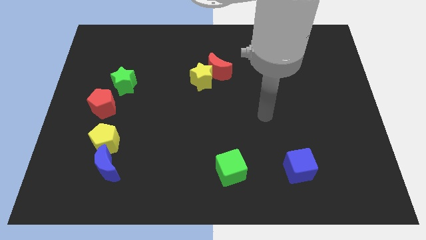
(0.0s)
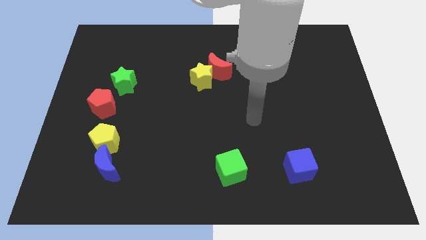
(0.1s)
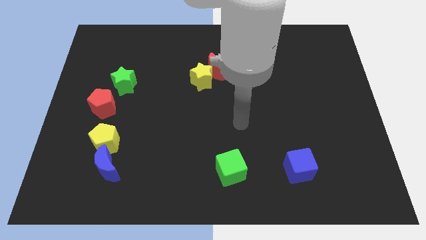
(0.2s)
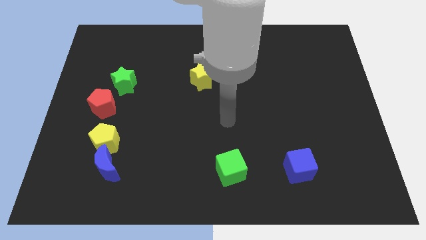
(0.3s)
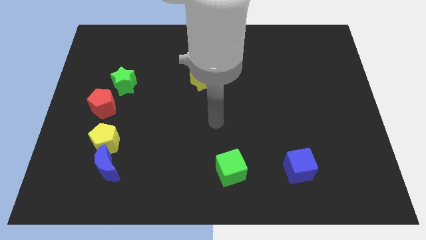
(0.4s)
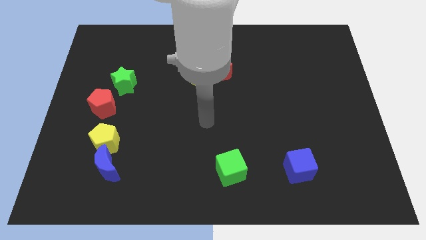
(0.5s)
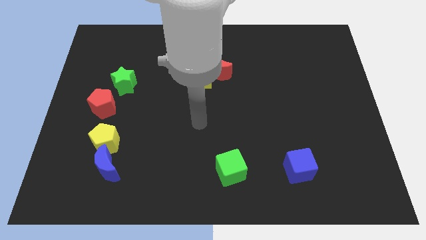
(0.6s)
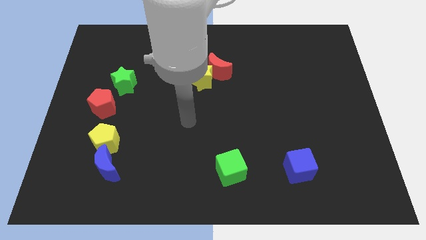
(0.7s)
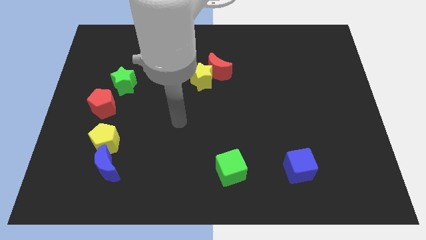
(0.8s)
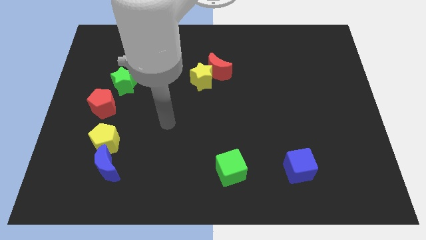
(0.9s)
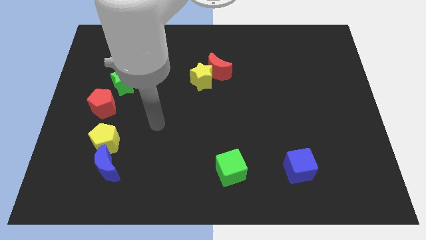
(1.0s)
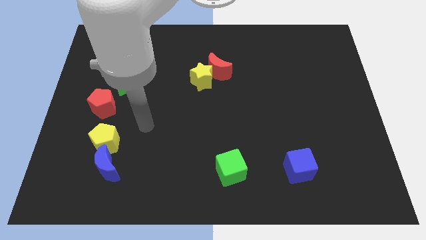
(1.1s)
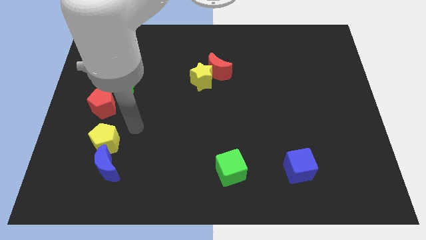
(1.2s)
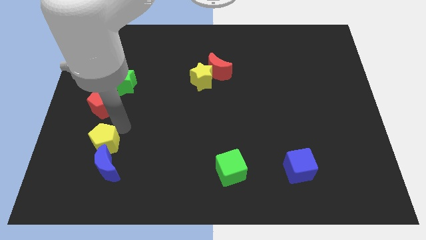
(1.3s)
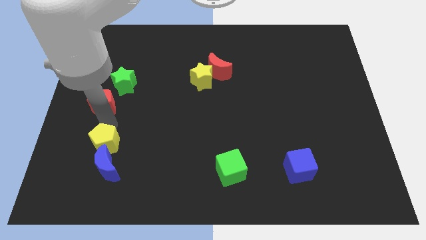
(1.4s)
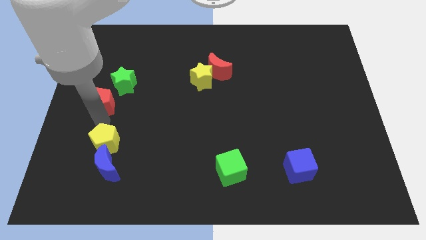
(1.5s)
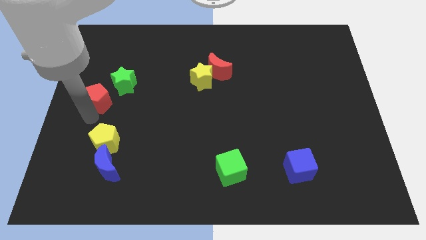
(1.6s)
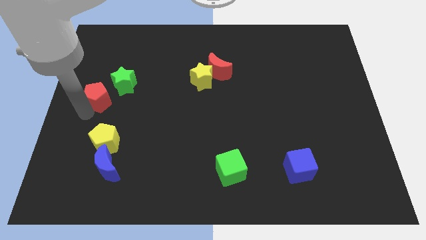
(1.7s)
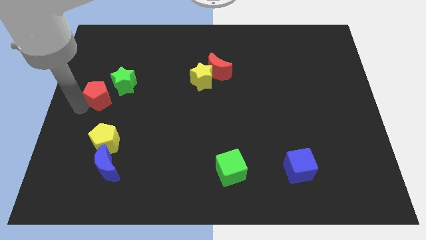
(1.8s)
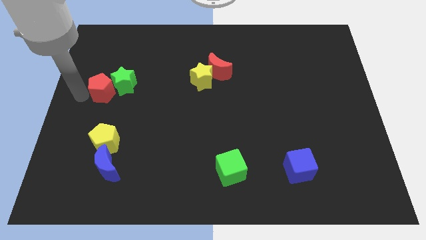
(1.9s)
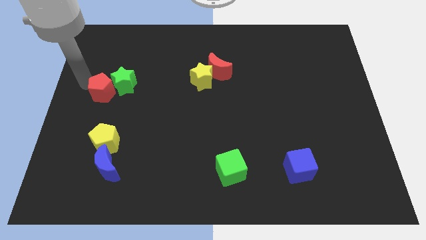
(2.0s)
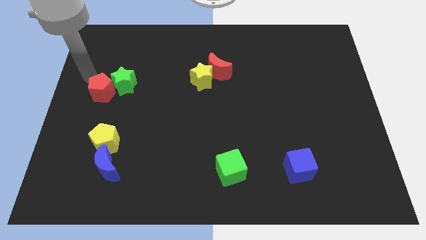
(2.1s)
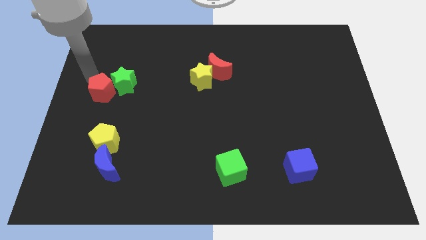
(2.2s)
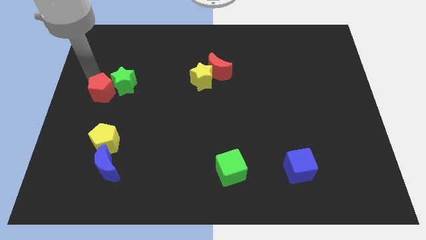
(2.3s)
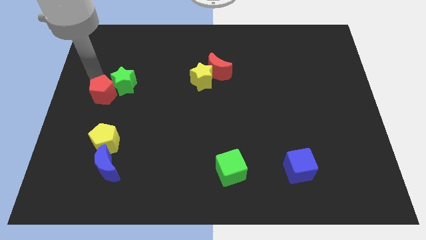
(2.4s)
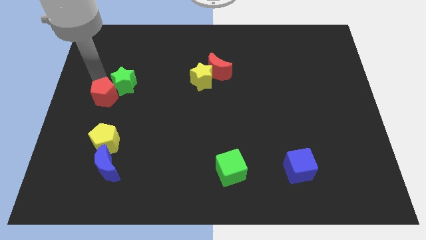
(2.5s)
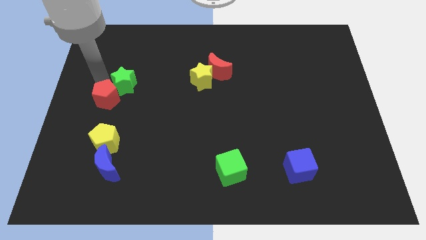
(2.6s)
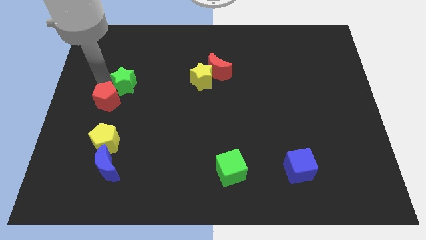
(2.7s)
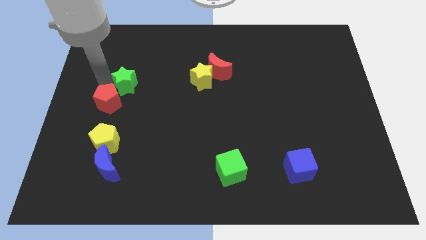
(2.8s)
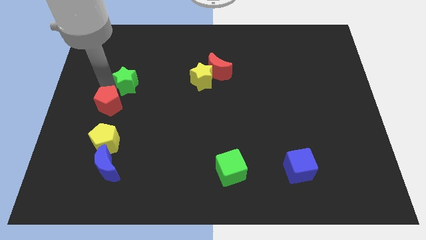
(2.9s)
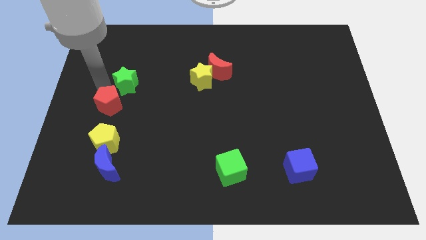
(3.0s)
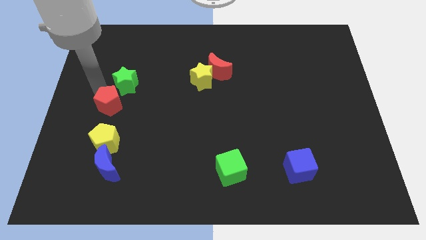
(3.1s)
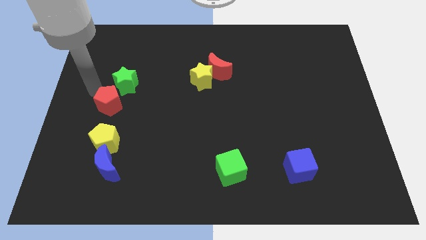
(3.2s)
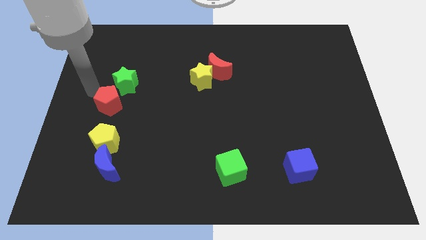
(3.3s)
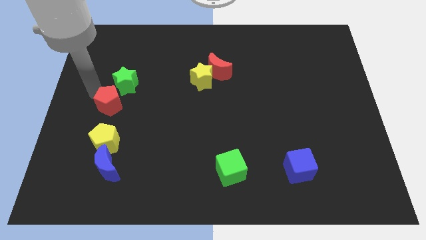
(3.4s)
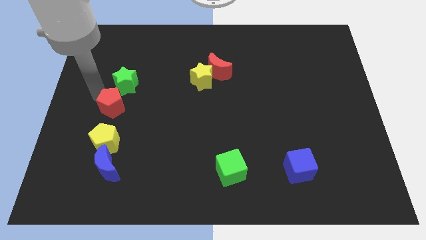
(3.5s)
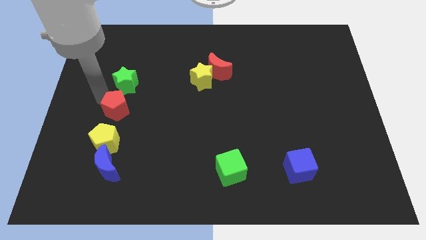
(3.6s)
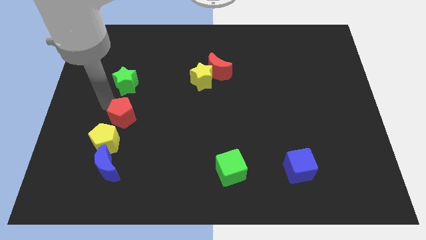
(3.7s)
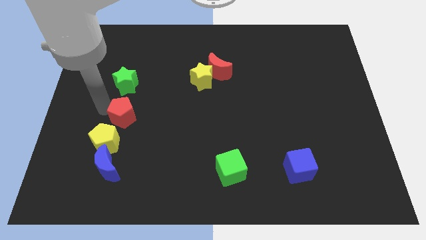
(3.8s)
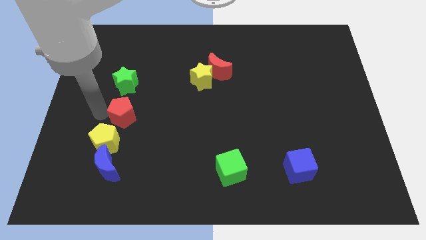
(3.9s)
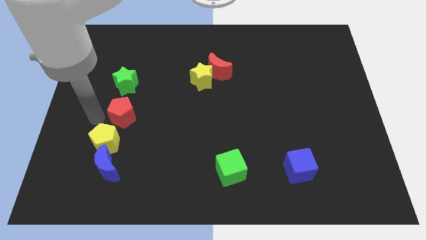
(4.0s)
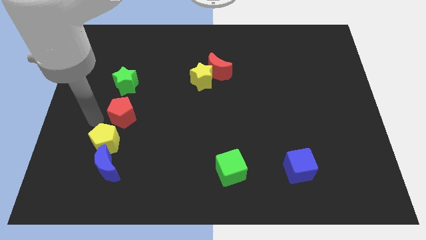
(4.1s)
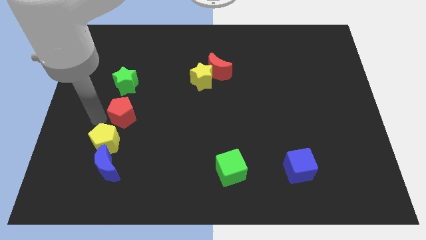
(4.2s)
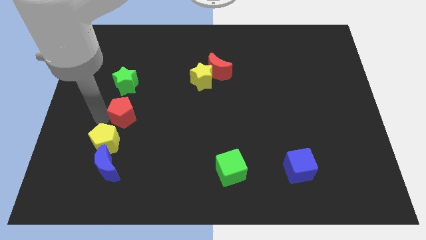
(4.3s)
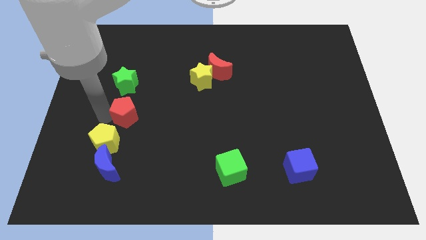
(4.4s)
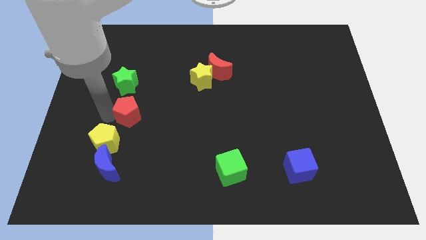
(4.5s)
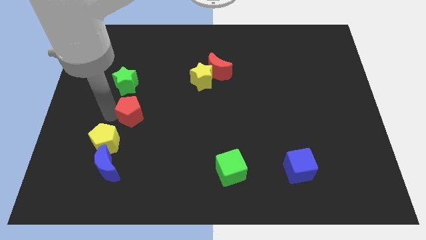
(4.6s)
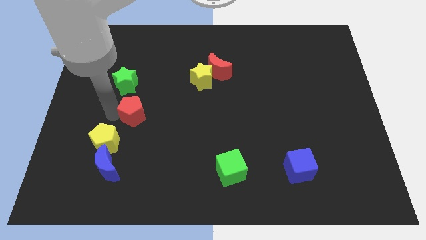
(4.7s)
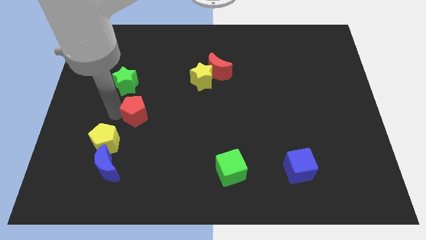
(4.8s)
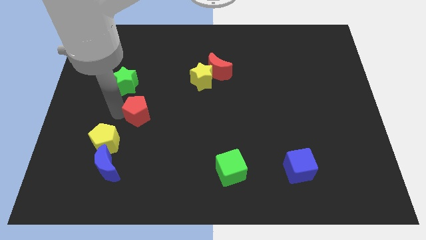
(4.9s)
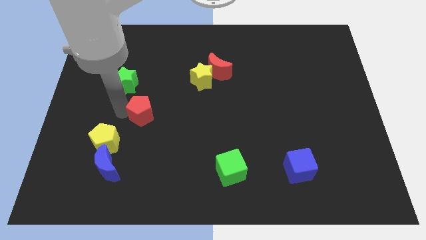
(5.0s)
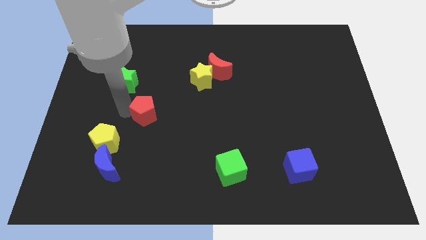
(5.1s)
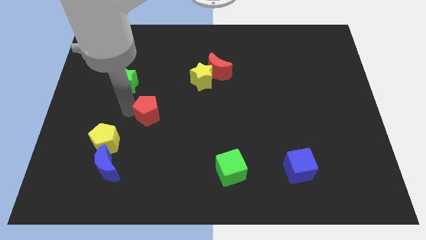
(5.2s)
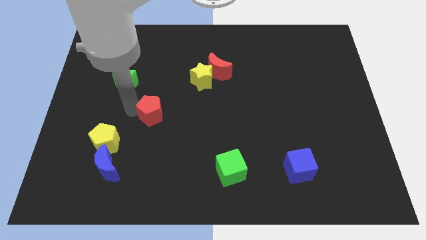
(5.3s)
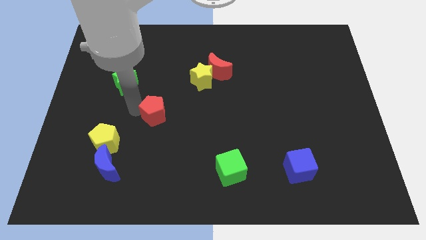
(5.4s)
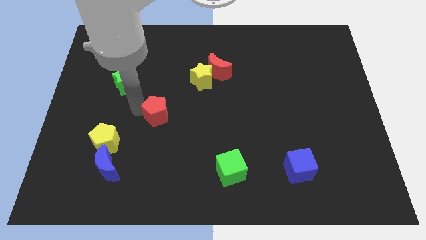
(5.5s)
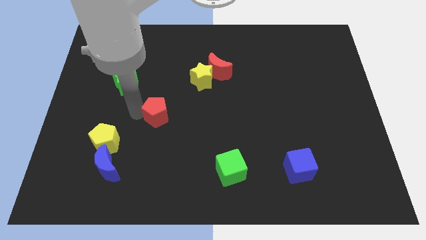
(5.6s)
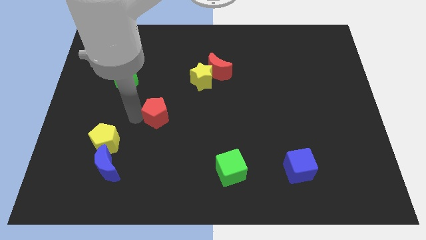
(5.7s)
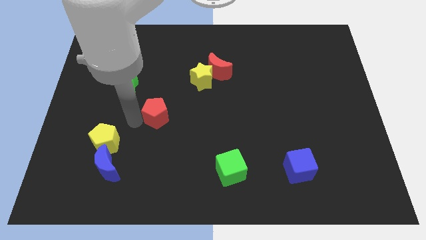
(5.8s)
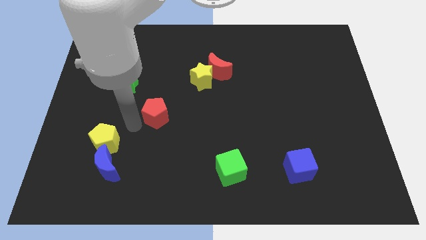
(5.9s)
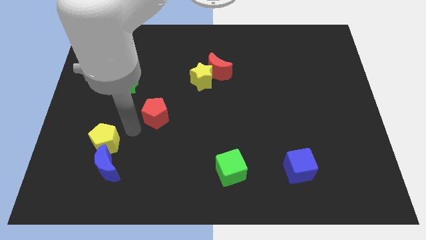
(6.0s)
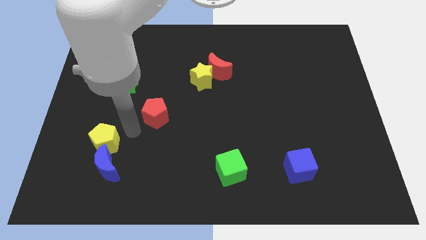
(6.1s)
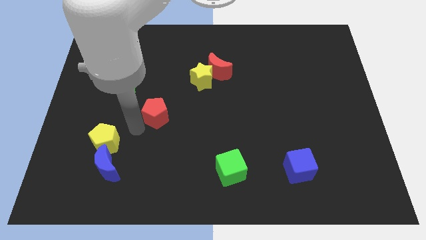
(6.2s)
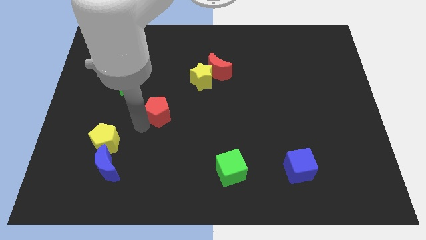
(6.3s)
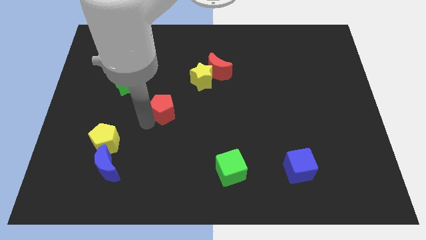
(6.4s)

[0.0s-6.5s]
put the red pentagon to the middle
